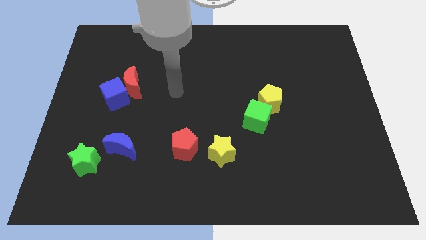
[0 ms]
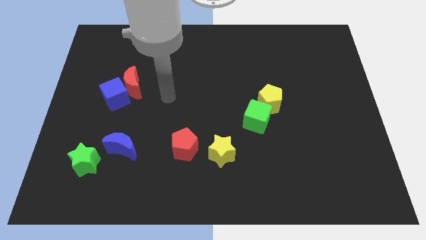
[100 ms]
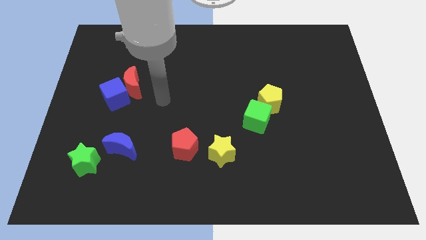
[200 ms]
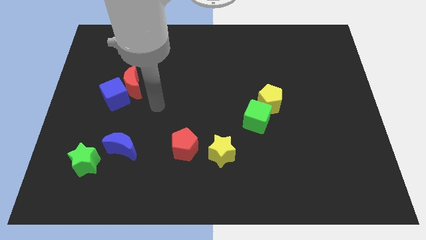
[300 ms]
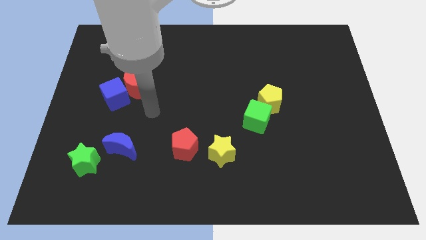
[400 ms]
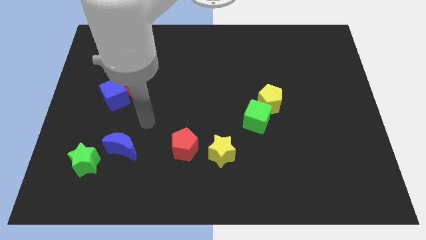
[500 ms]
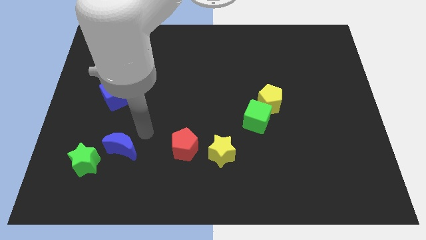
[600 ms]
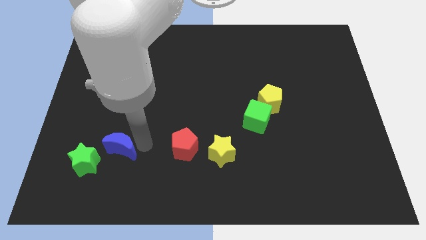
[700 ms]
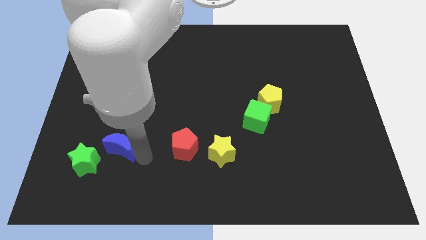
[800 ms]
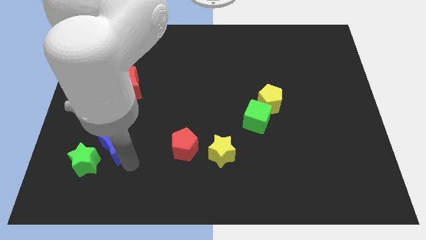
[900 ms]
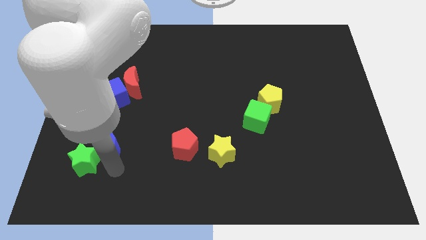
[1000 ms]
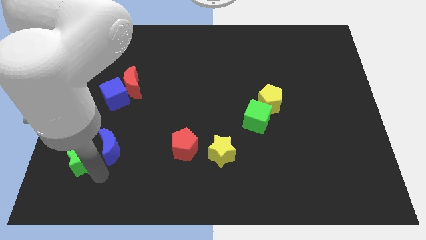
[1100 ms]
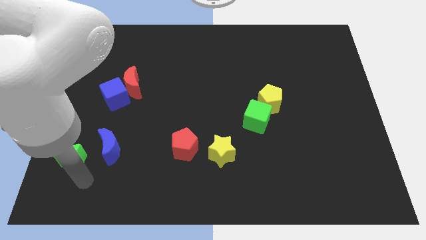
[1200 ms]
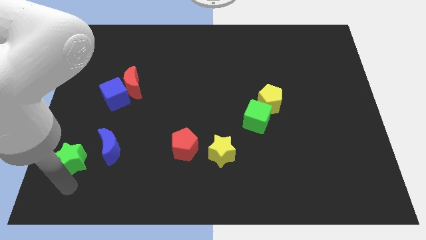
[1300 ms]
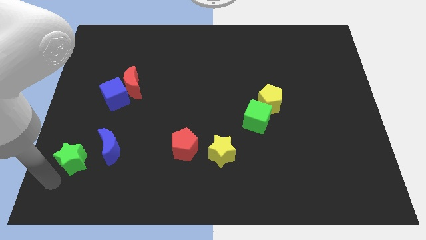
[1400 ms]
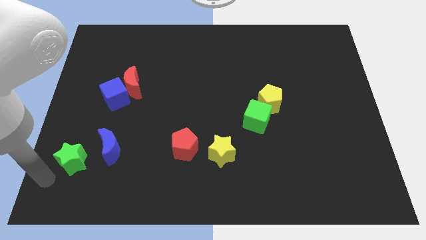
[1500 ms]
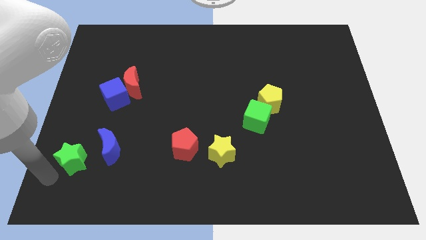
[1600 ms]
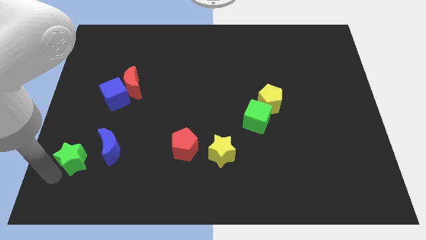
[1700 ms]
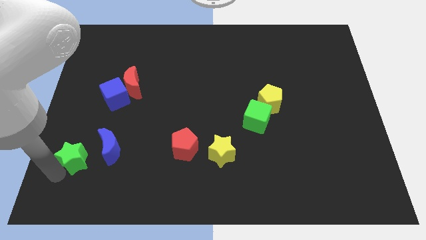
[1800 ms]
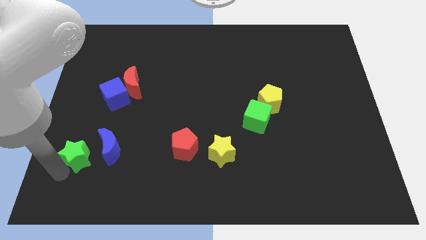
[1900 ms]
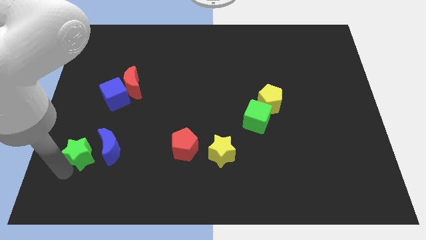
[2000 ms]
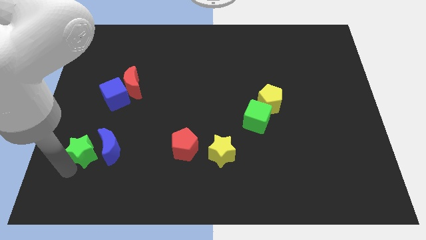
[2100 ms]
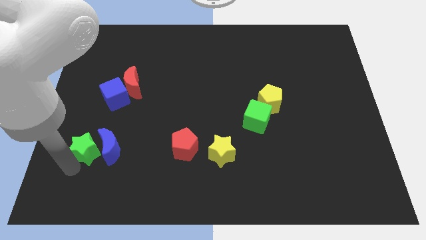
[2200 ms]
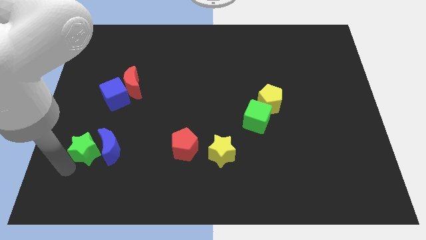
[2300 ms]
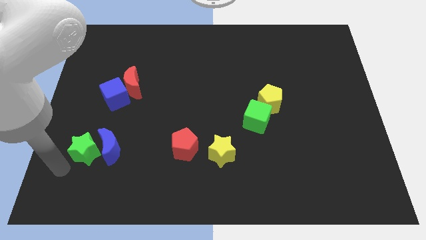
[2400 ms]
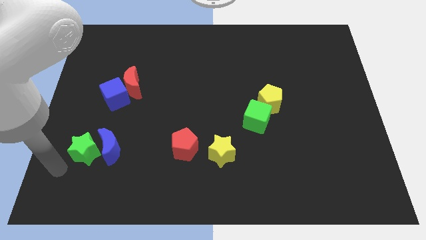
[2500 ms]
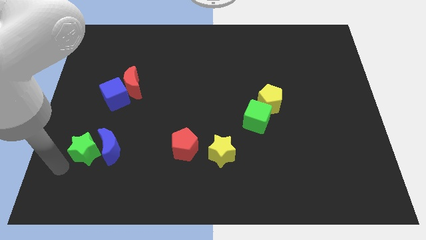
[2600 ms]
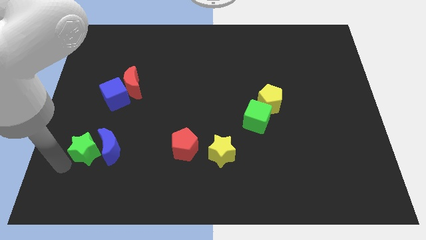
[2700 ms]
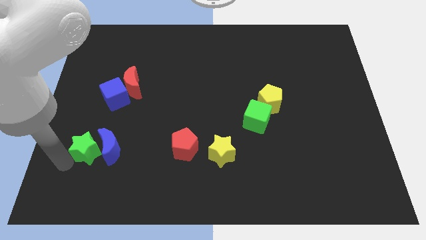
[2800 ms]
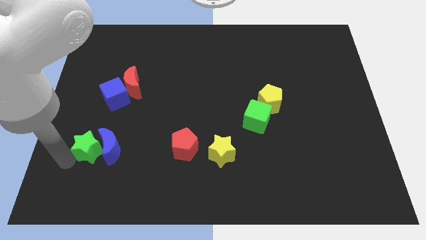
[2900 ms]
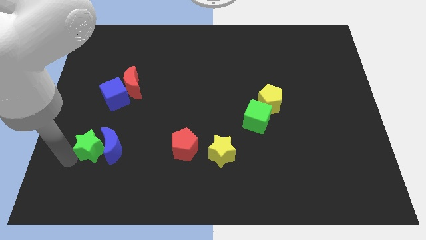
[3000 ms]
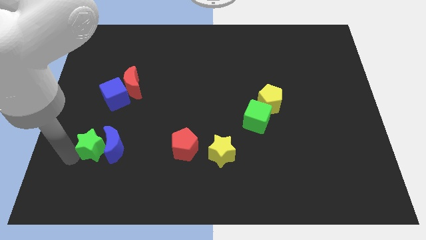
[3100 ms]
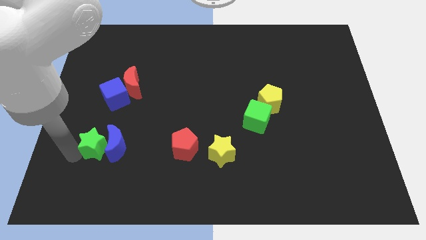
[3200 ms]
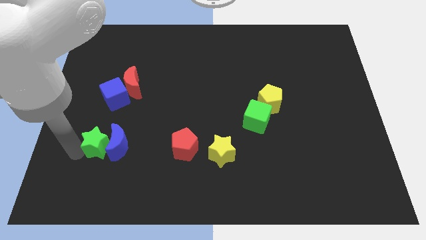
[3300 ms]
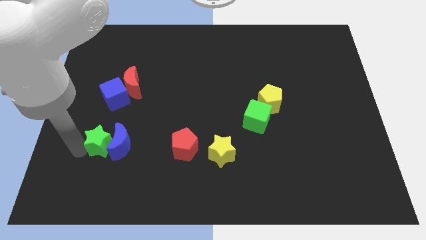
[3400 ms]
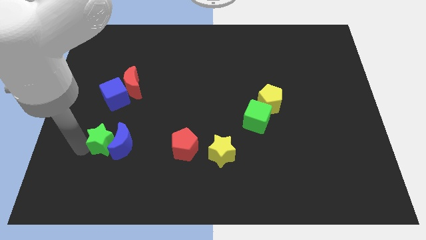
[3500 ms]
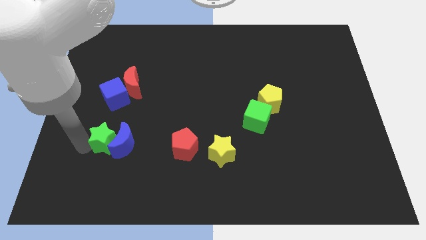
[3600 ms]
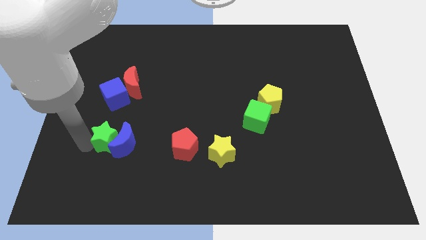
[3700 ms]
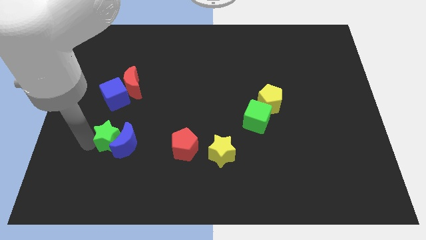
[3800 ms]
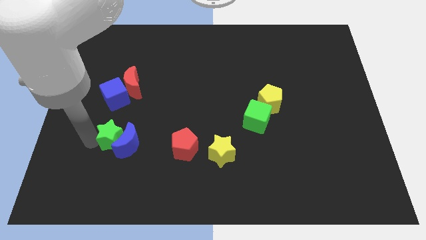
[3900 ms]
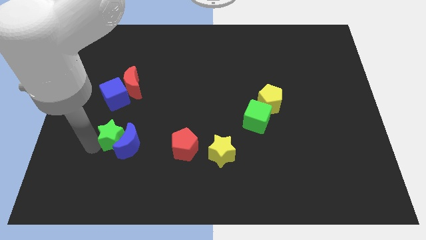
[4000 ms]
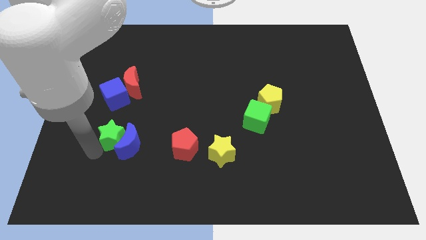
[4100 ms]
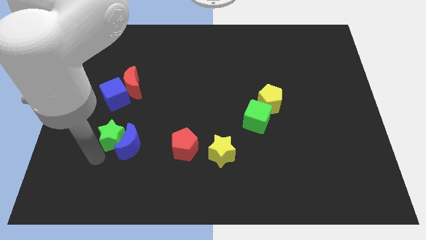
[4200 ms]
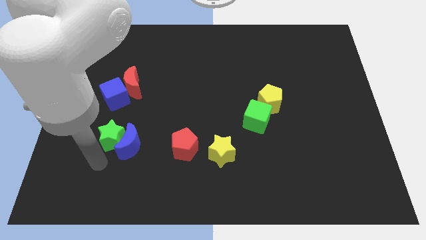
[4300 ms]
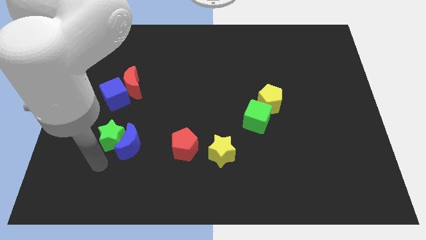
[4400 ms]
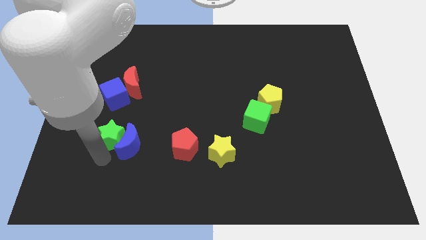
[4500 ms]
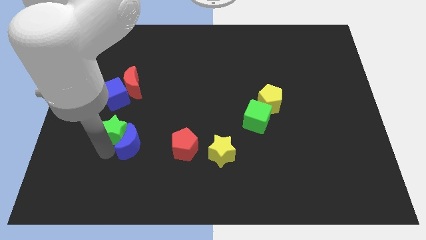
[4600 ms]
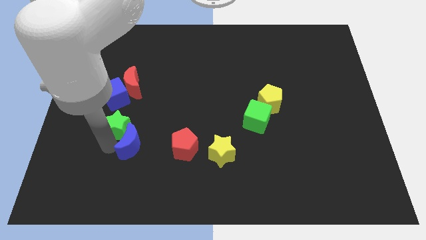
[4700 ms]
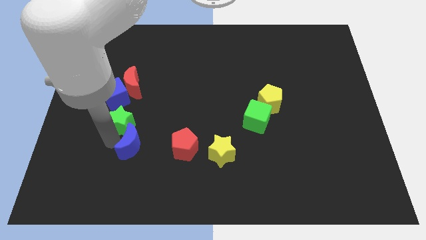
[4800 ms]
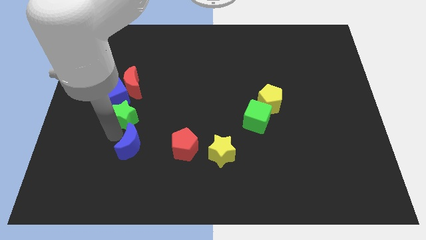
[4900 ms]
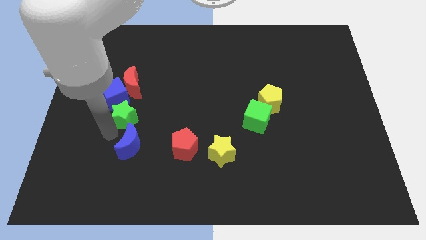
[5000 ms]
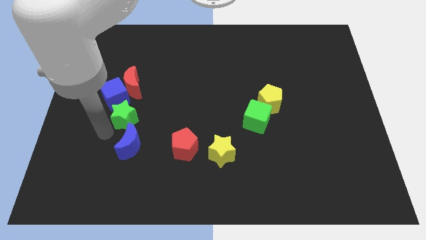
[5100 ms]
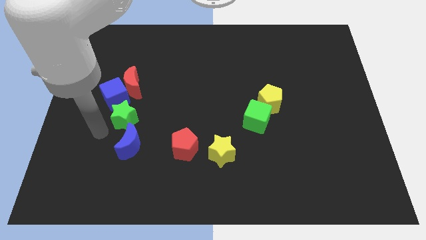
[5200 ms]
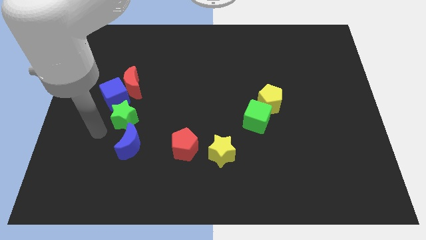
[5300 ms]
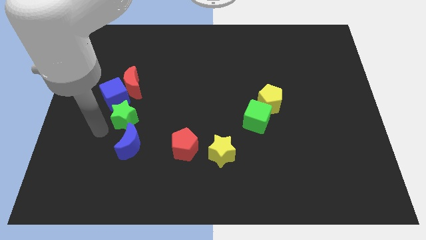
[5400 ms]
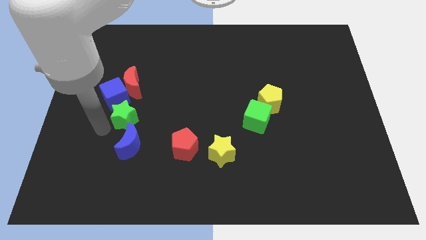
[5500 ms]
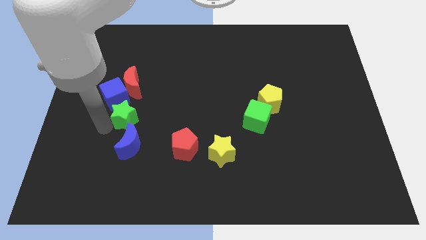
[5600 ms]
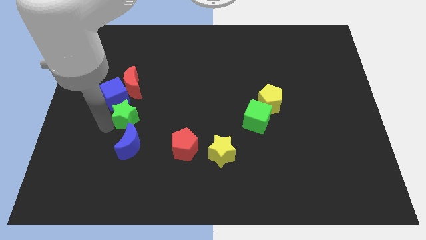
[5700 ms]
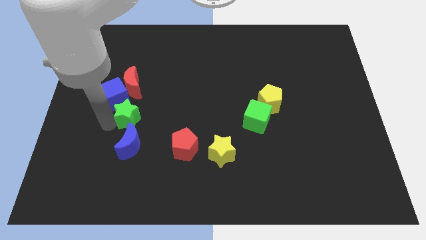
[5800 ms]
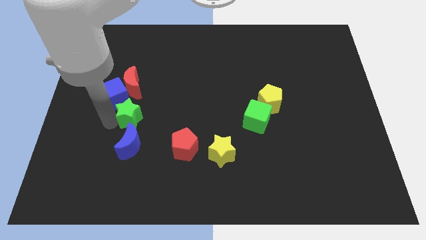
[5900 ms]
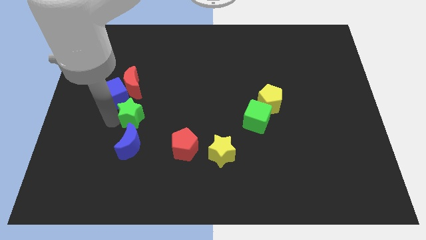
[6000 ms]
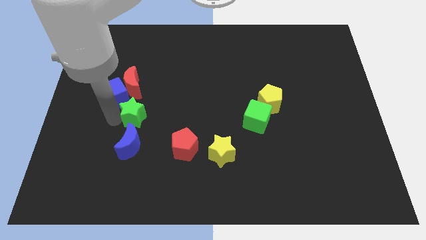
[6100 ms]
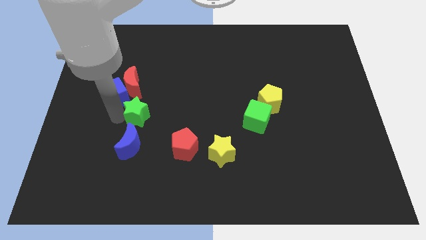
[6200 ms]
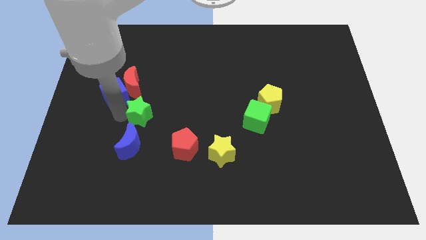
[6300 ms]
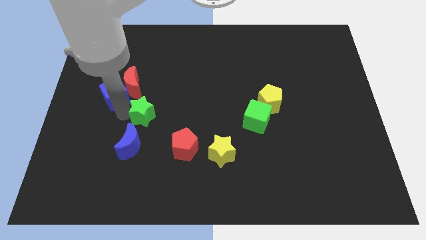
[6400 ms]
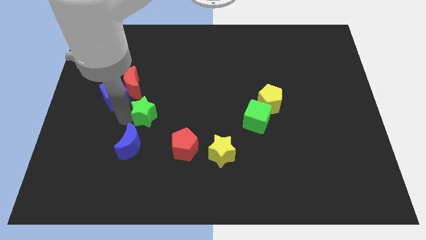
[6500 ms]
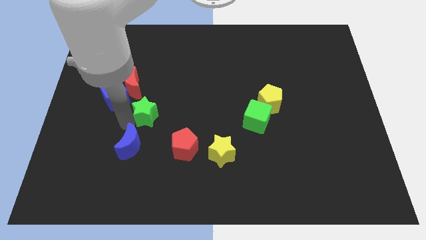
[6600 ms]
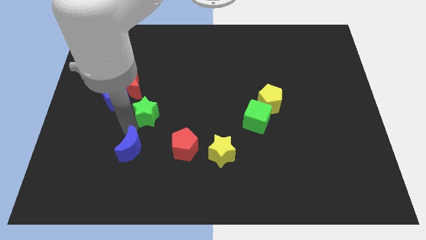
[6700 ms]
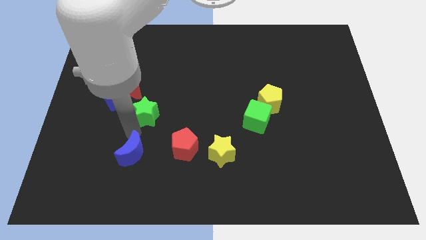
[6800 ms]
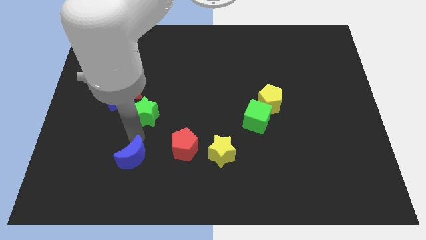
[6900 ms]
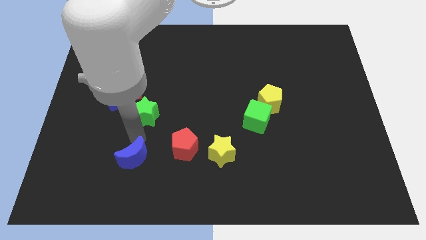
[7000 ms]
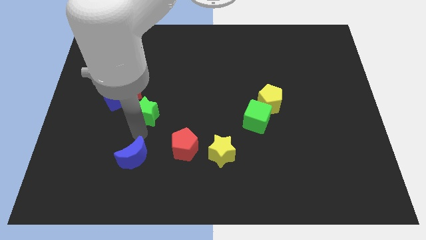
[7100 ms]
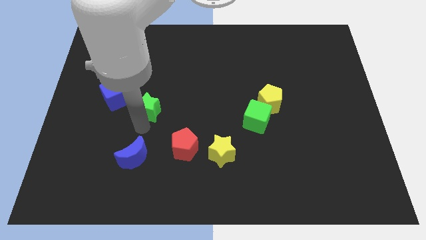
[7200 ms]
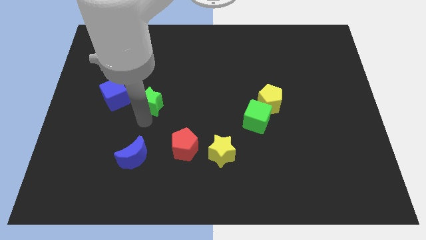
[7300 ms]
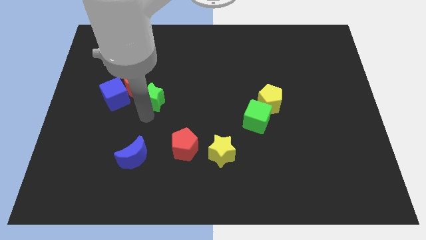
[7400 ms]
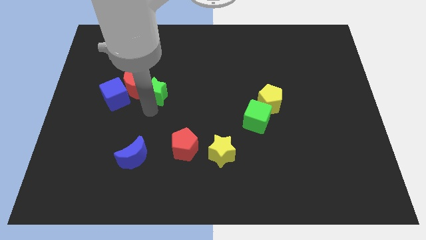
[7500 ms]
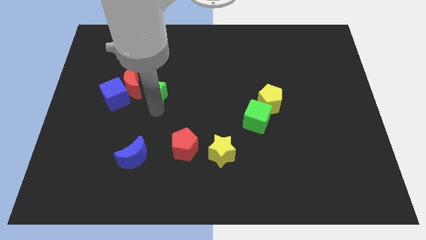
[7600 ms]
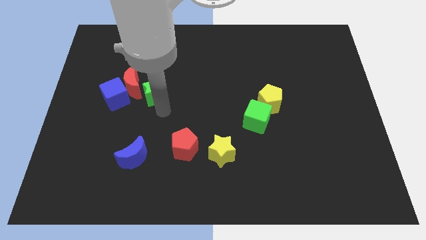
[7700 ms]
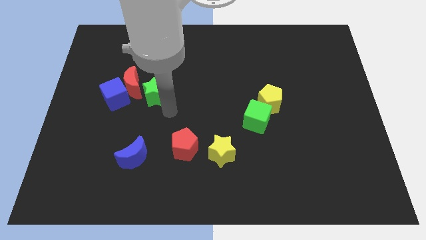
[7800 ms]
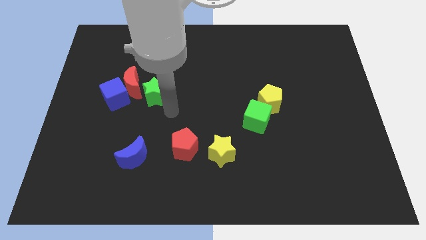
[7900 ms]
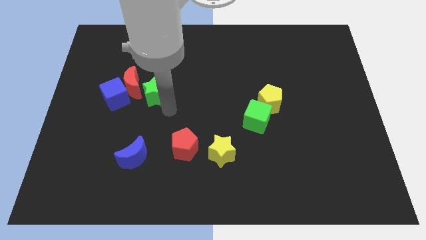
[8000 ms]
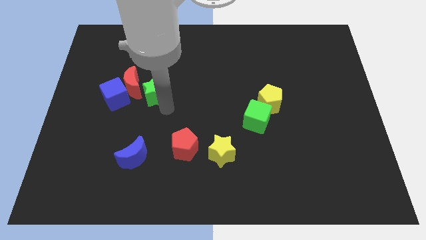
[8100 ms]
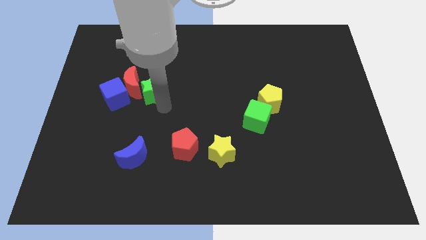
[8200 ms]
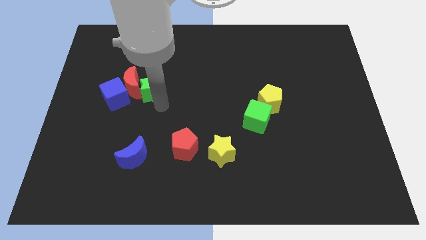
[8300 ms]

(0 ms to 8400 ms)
move the green star to the top right of the blue cube
